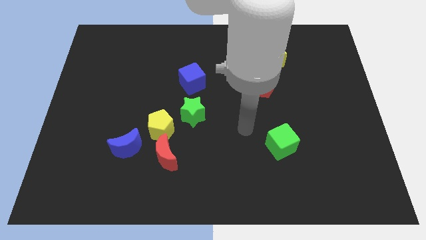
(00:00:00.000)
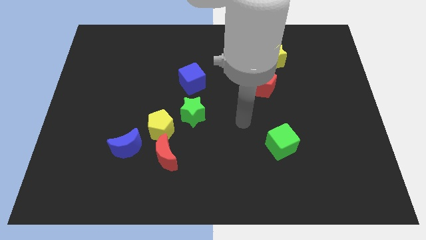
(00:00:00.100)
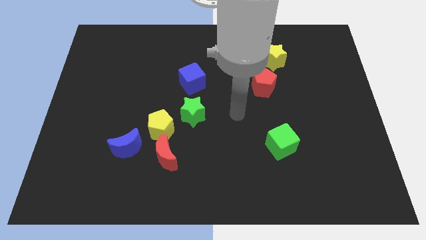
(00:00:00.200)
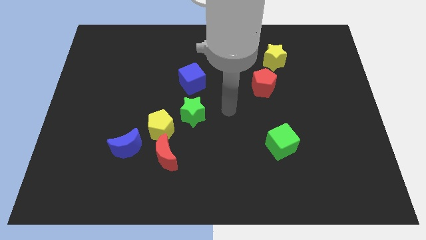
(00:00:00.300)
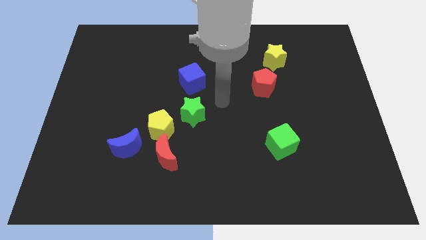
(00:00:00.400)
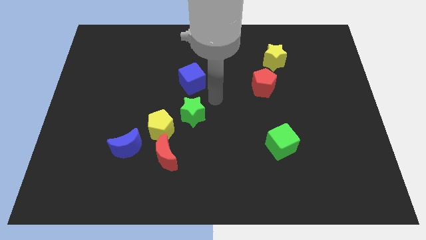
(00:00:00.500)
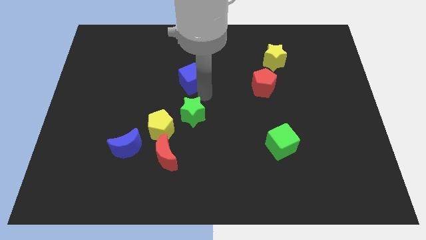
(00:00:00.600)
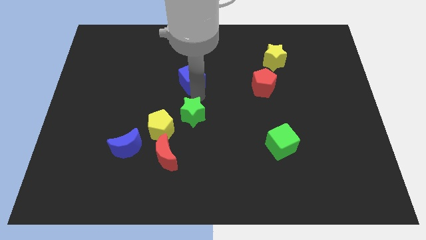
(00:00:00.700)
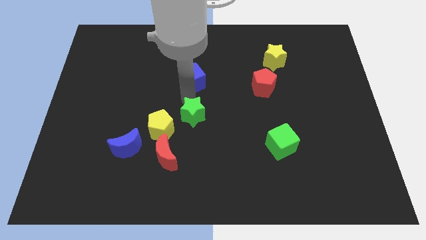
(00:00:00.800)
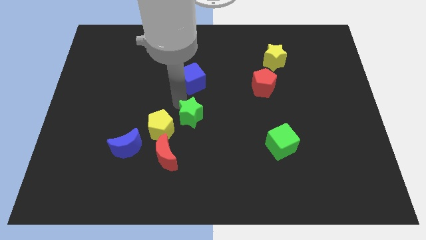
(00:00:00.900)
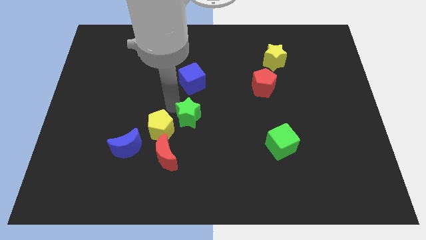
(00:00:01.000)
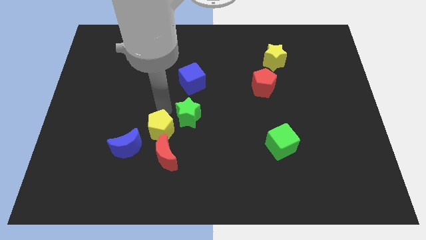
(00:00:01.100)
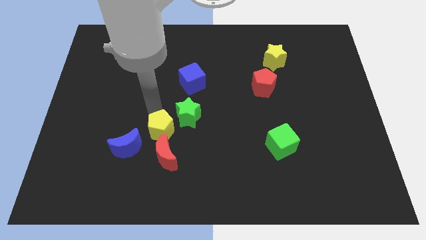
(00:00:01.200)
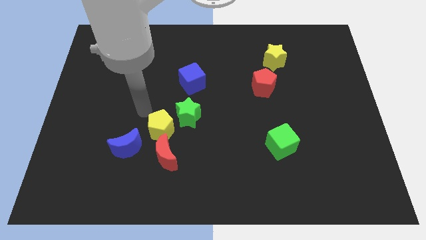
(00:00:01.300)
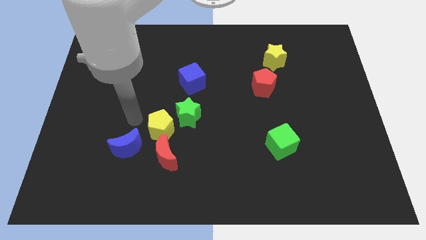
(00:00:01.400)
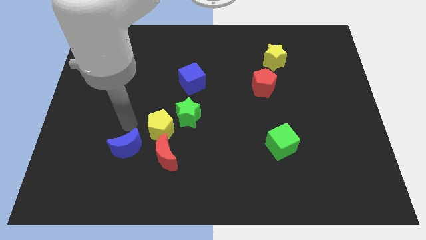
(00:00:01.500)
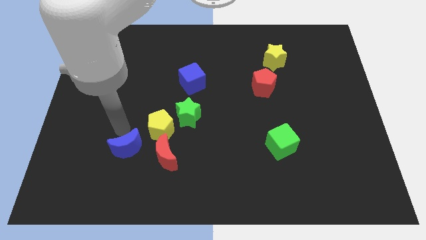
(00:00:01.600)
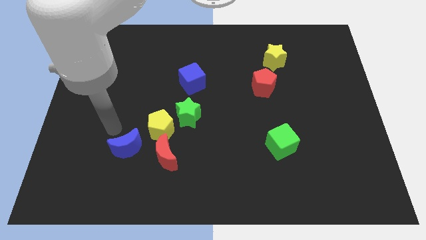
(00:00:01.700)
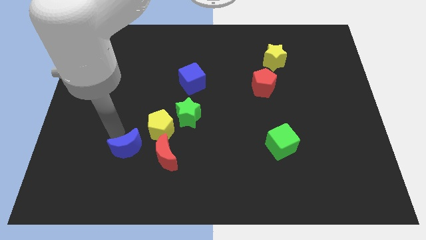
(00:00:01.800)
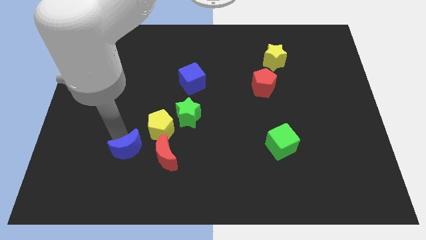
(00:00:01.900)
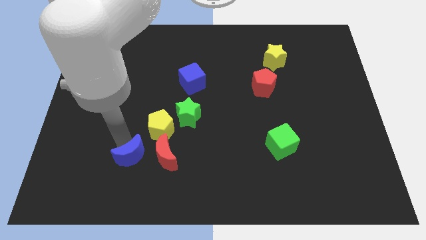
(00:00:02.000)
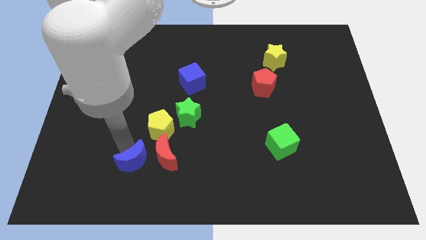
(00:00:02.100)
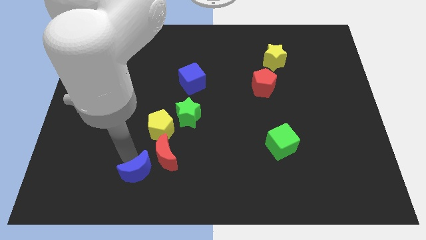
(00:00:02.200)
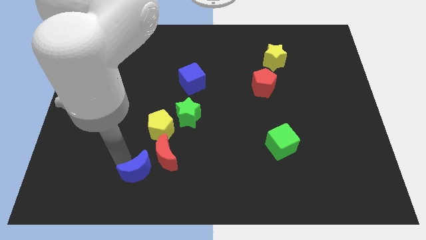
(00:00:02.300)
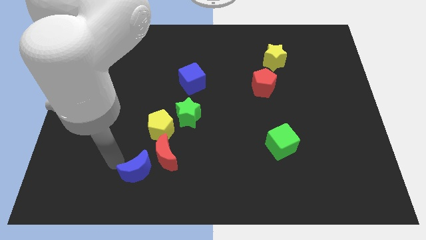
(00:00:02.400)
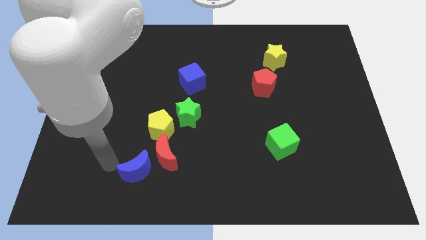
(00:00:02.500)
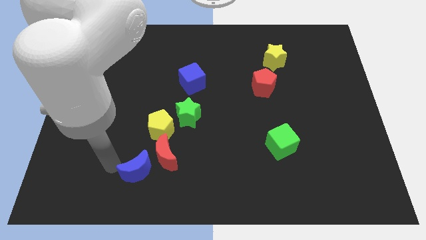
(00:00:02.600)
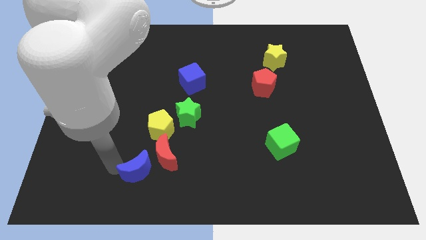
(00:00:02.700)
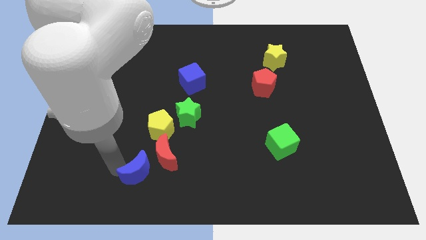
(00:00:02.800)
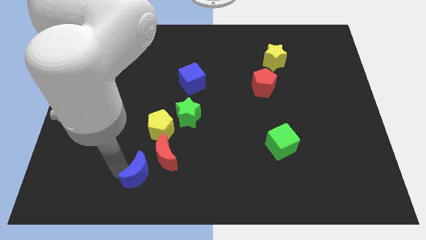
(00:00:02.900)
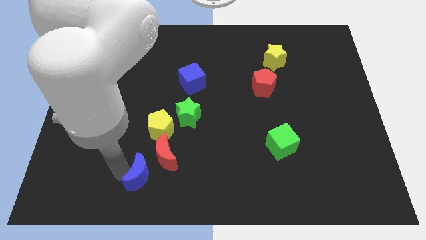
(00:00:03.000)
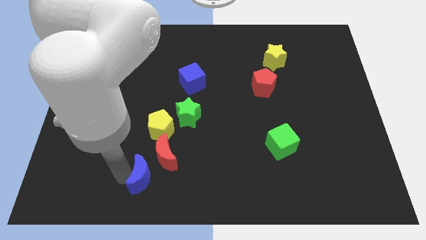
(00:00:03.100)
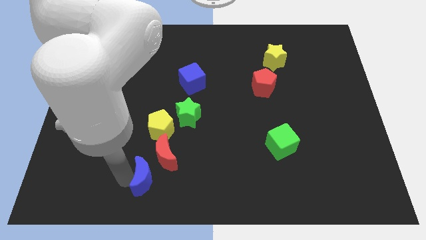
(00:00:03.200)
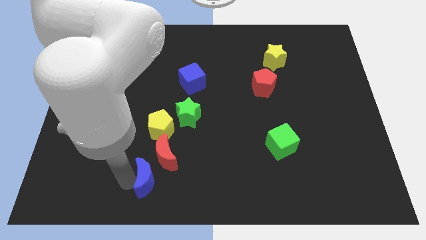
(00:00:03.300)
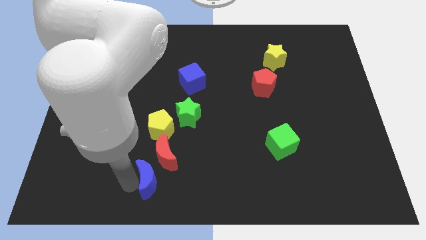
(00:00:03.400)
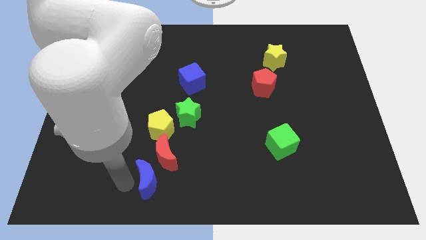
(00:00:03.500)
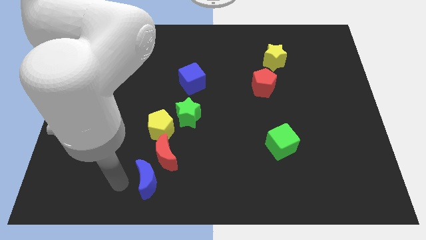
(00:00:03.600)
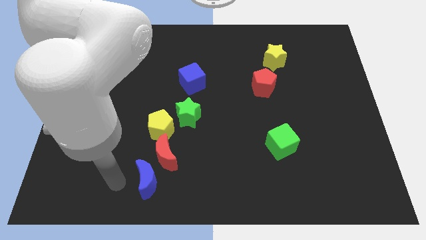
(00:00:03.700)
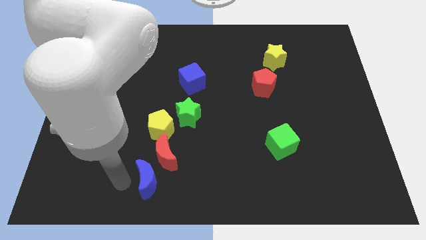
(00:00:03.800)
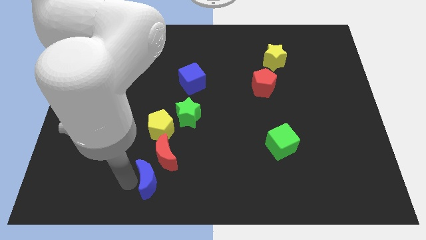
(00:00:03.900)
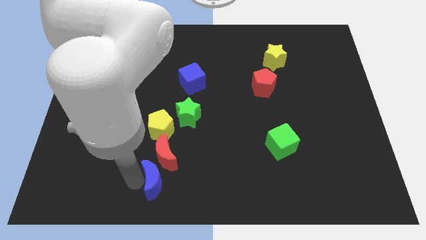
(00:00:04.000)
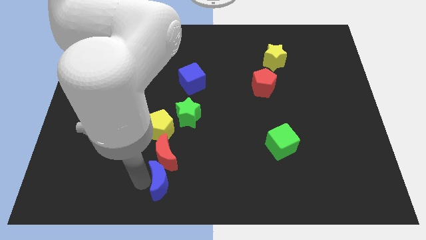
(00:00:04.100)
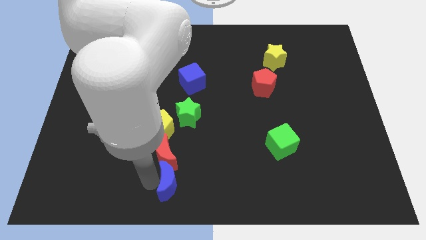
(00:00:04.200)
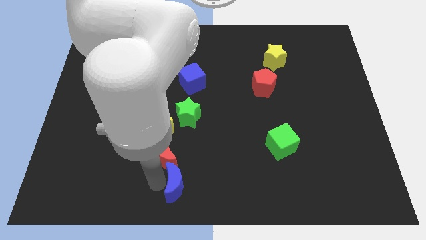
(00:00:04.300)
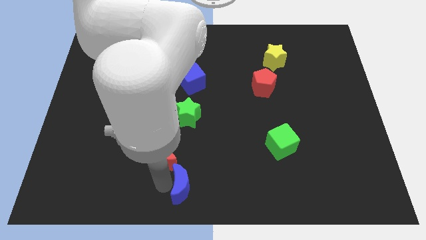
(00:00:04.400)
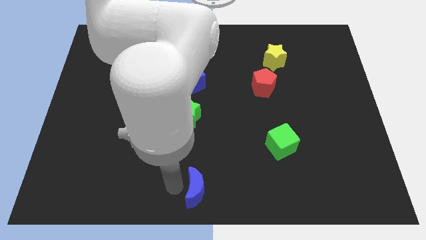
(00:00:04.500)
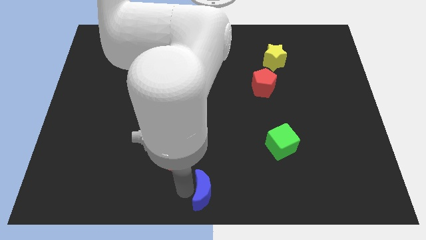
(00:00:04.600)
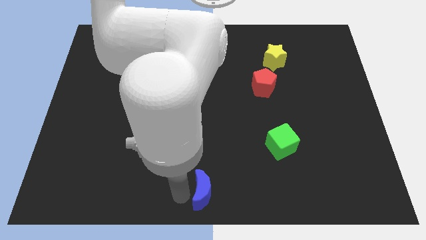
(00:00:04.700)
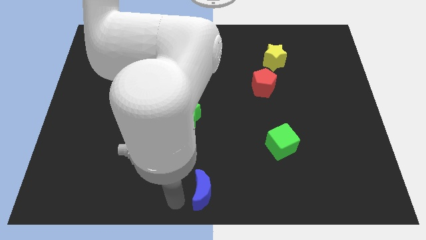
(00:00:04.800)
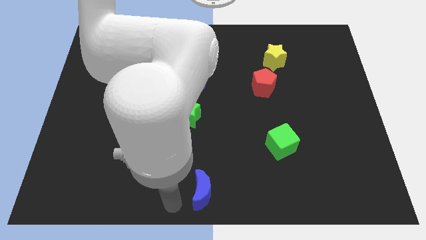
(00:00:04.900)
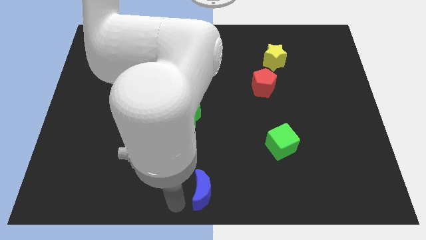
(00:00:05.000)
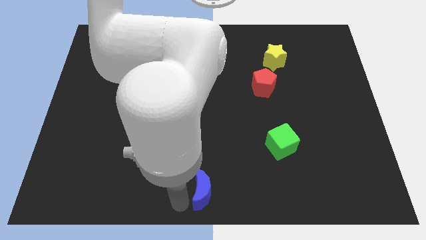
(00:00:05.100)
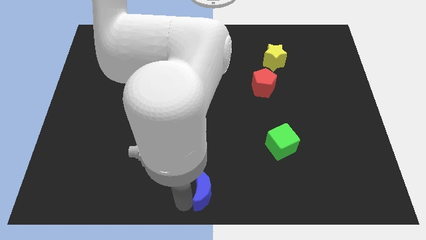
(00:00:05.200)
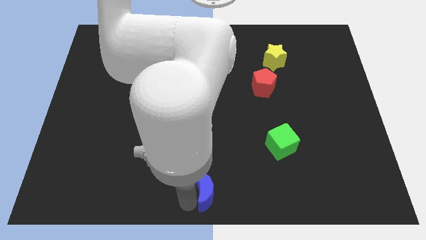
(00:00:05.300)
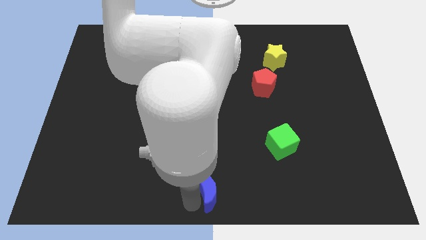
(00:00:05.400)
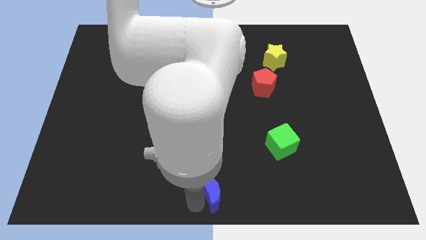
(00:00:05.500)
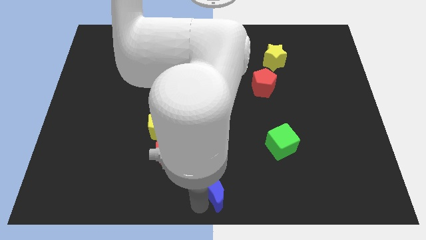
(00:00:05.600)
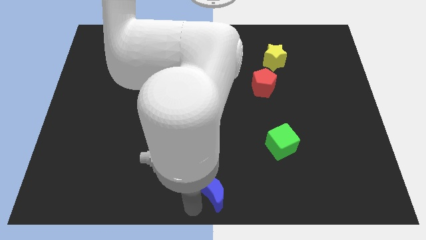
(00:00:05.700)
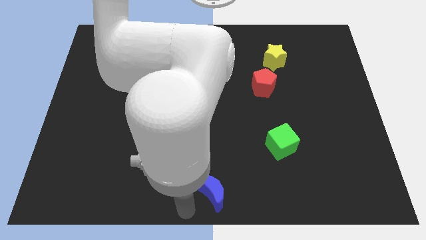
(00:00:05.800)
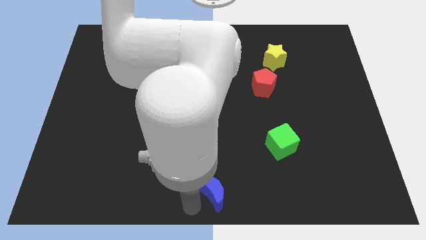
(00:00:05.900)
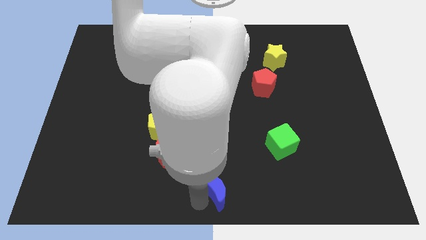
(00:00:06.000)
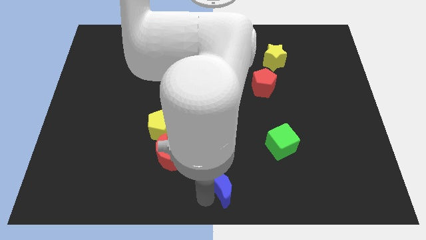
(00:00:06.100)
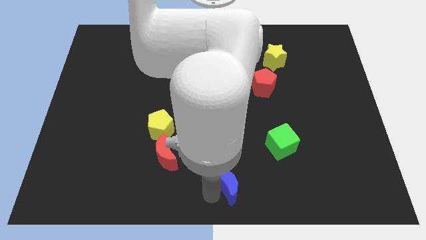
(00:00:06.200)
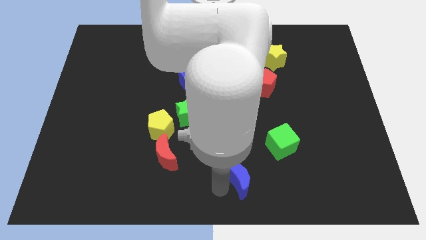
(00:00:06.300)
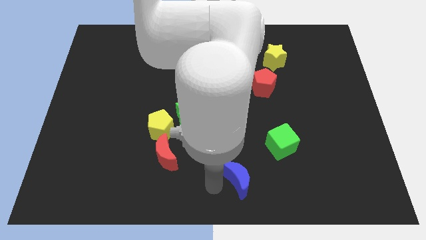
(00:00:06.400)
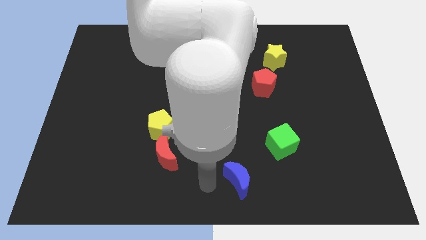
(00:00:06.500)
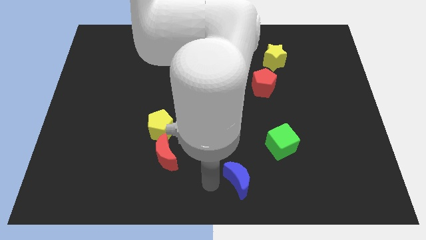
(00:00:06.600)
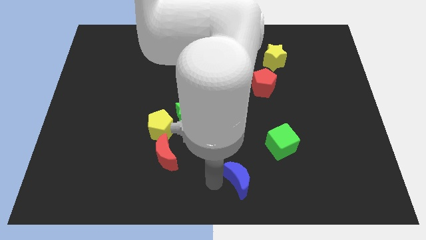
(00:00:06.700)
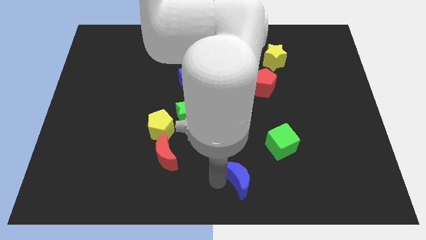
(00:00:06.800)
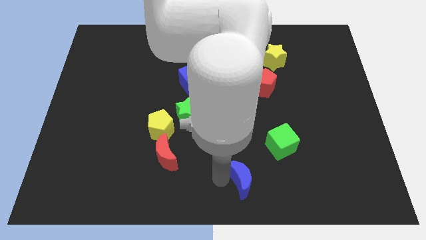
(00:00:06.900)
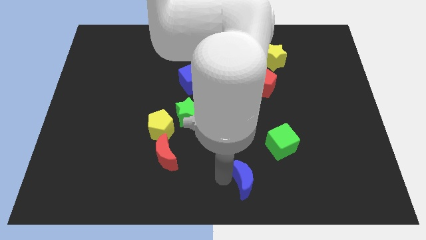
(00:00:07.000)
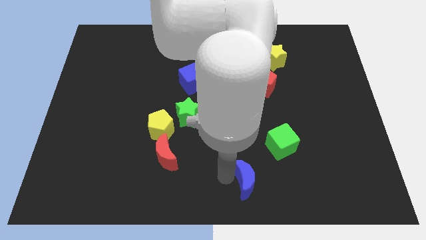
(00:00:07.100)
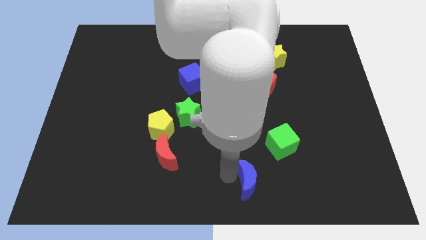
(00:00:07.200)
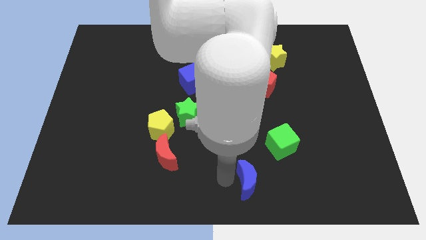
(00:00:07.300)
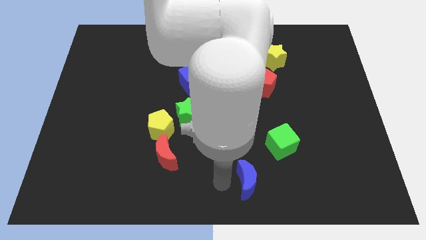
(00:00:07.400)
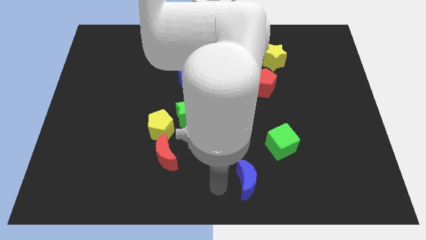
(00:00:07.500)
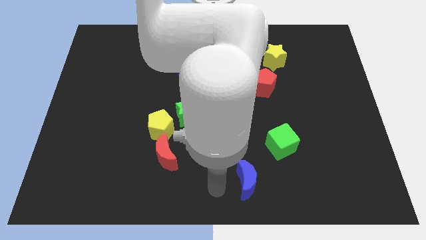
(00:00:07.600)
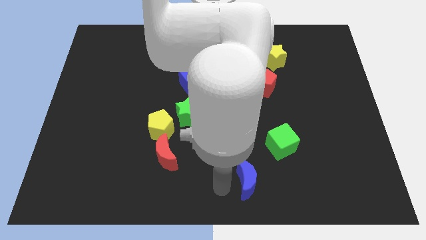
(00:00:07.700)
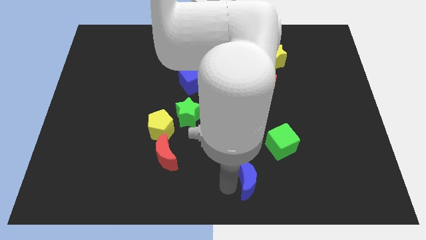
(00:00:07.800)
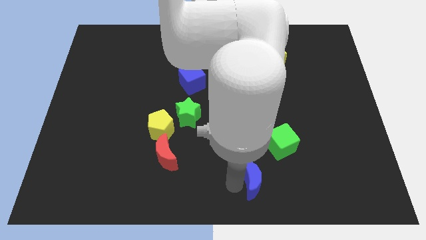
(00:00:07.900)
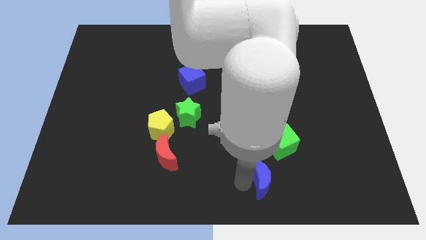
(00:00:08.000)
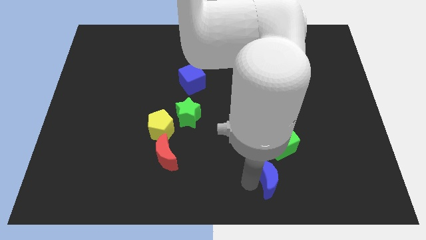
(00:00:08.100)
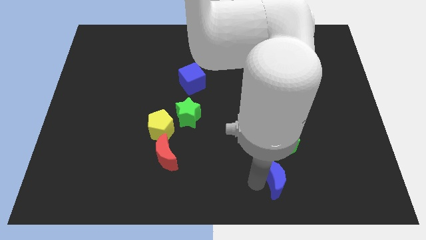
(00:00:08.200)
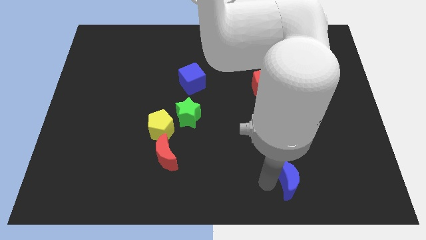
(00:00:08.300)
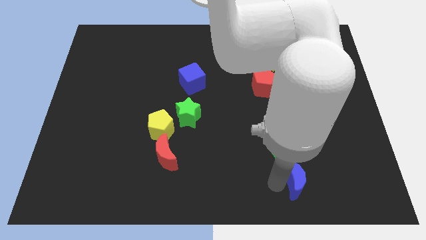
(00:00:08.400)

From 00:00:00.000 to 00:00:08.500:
put the blue moon to the bottom right side of the green cube
